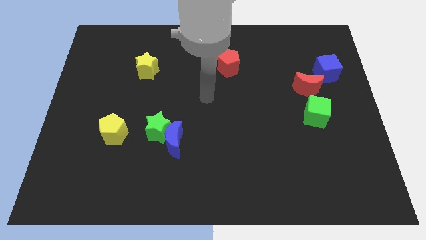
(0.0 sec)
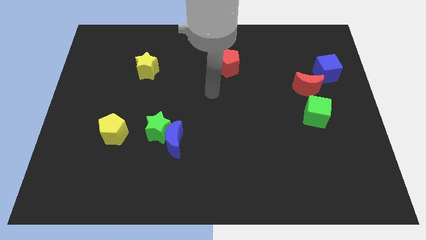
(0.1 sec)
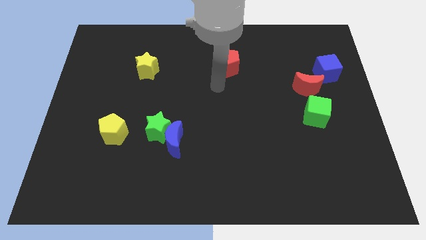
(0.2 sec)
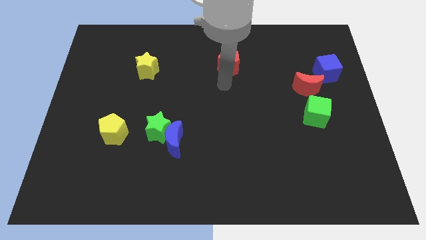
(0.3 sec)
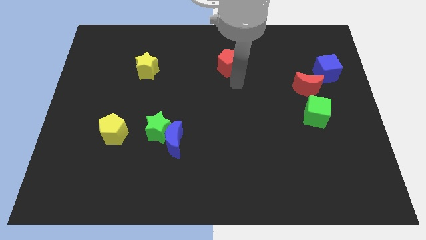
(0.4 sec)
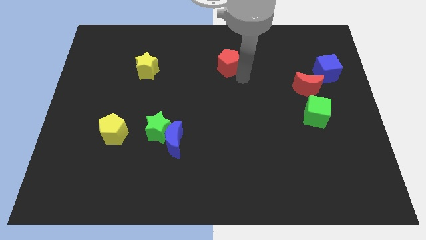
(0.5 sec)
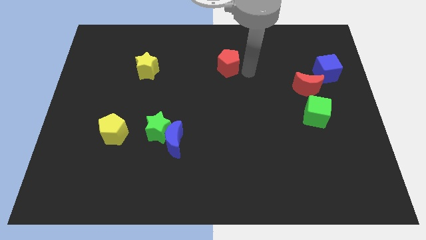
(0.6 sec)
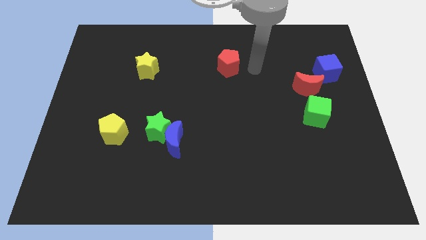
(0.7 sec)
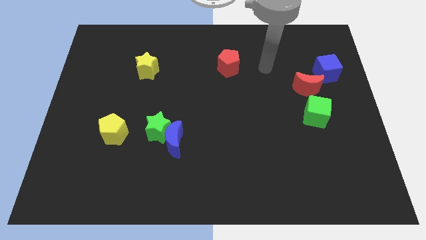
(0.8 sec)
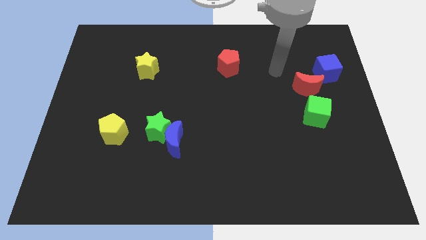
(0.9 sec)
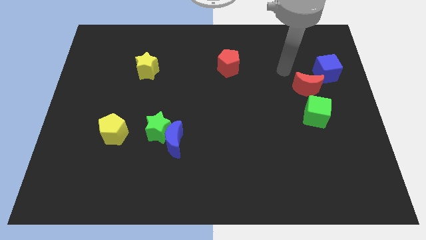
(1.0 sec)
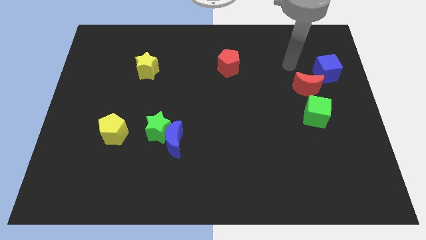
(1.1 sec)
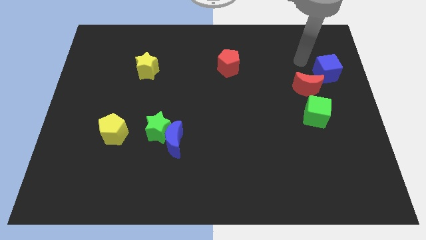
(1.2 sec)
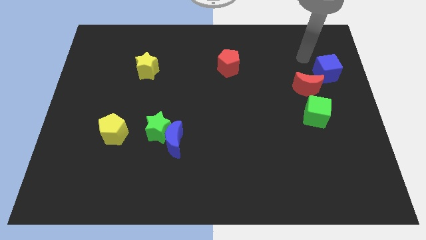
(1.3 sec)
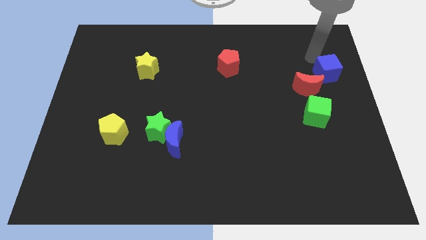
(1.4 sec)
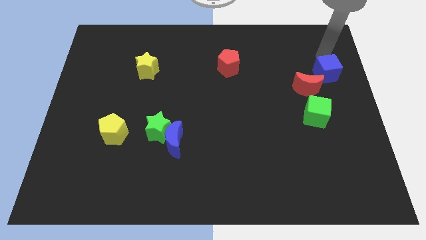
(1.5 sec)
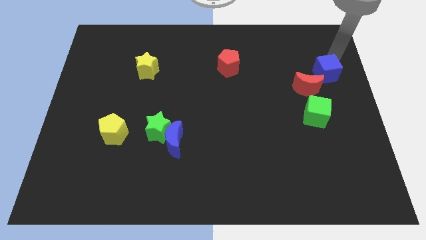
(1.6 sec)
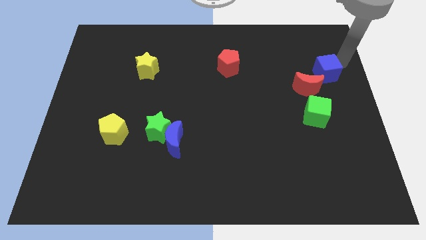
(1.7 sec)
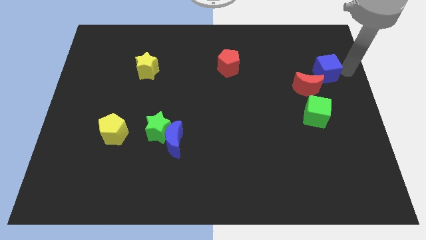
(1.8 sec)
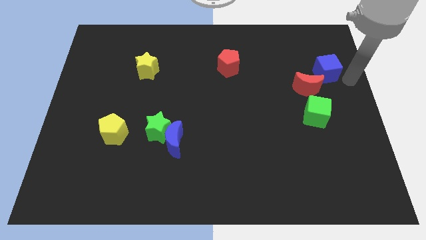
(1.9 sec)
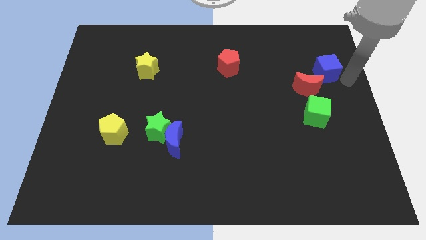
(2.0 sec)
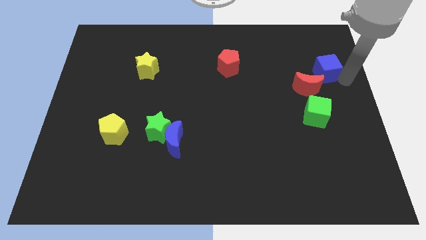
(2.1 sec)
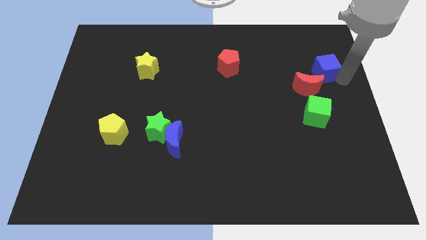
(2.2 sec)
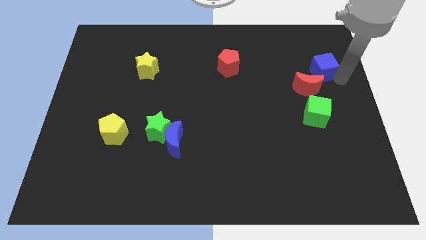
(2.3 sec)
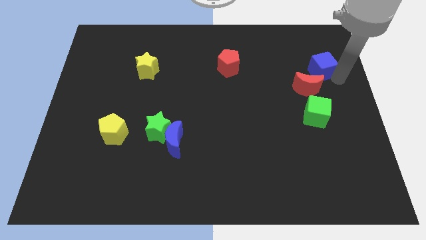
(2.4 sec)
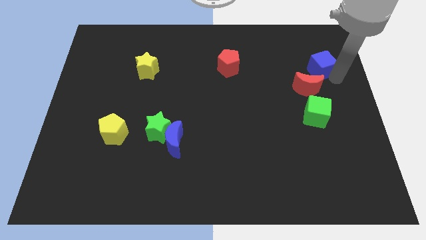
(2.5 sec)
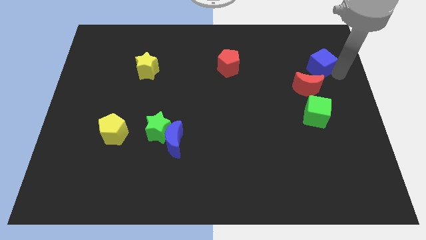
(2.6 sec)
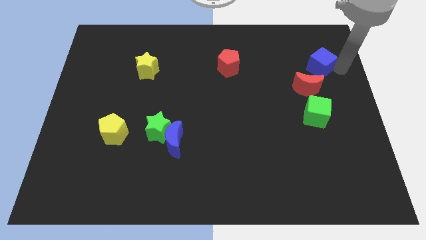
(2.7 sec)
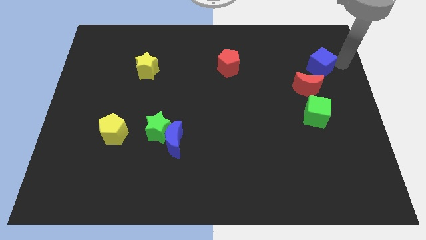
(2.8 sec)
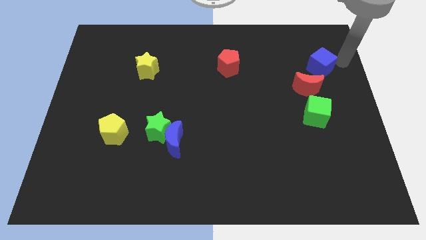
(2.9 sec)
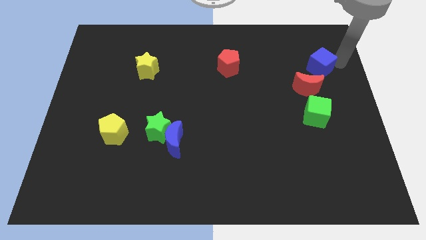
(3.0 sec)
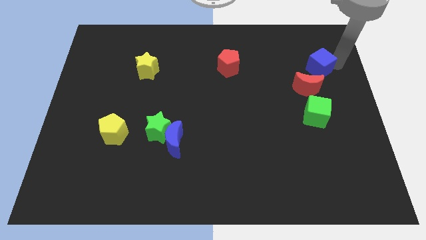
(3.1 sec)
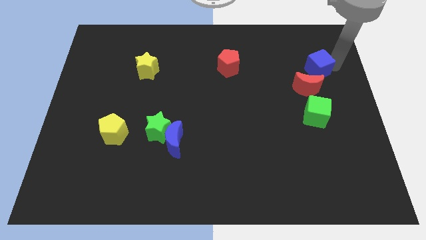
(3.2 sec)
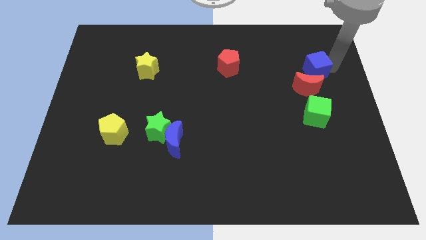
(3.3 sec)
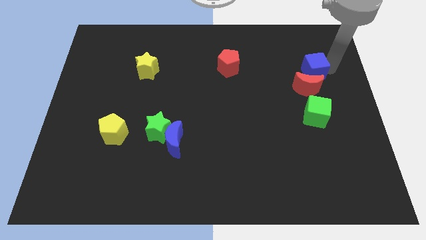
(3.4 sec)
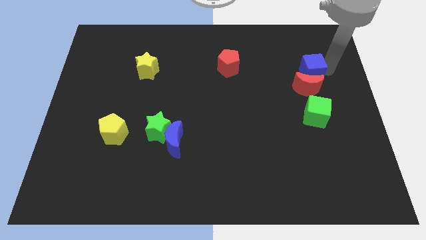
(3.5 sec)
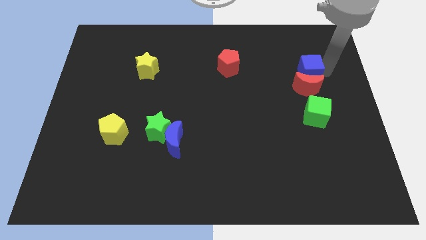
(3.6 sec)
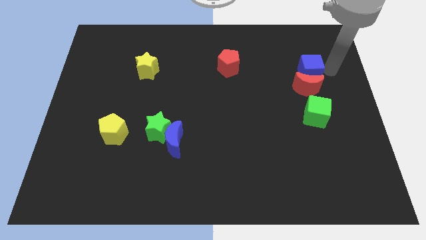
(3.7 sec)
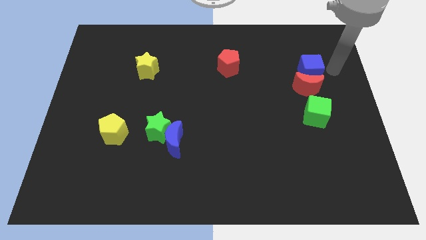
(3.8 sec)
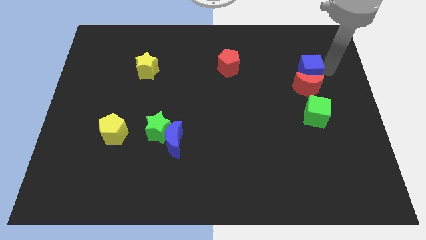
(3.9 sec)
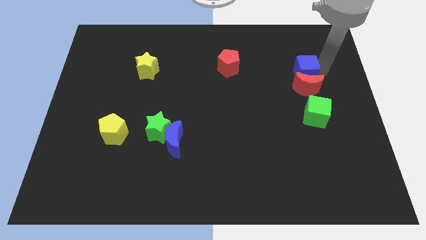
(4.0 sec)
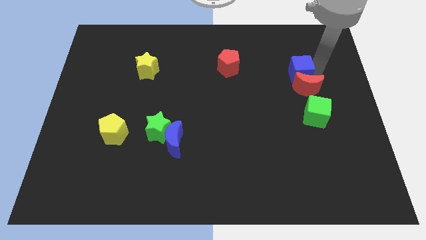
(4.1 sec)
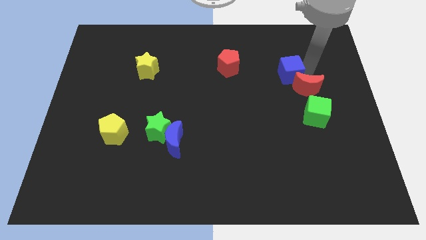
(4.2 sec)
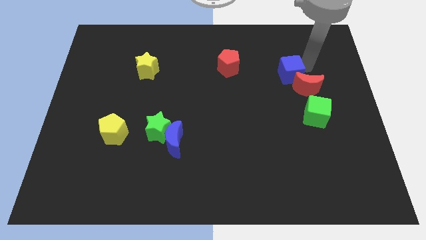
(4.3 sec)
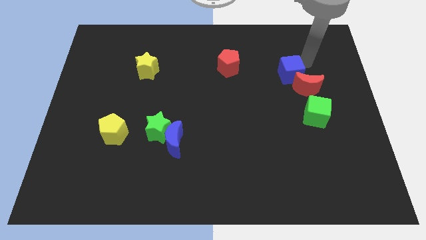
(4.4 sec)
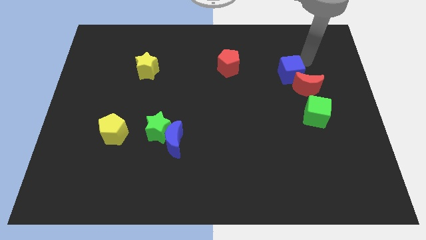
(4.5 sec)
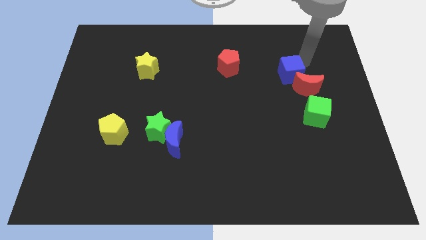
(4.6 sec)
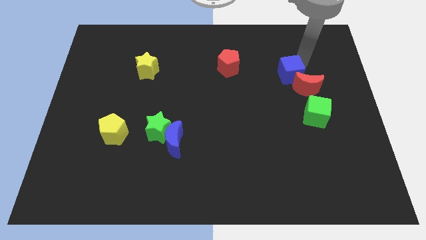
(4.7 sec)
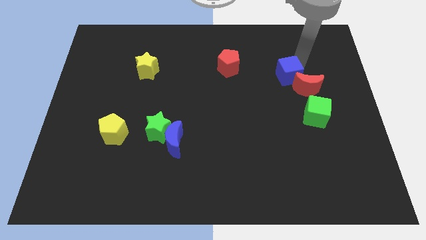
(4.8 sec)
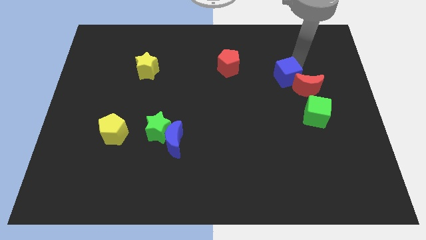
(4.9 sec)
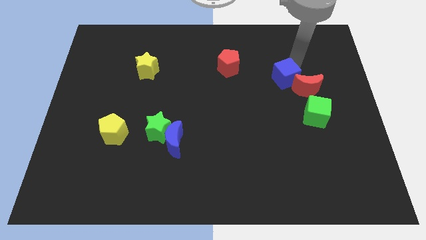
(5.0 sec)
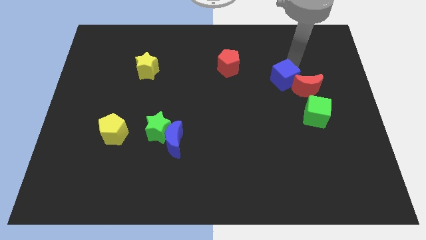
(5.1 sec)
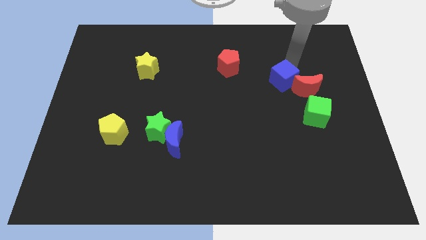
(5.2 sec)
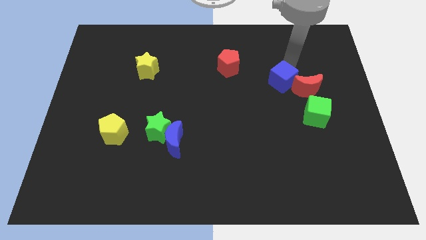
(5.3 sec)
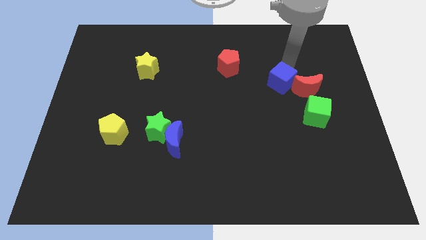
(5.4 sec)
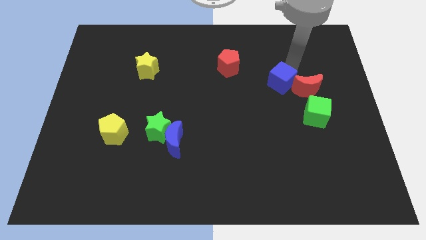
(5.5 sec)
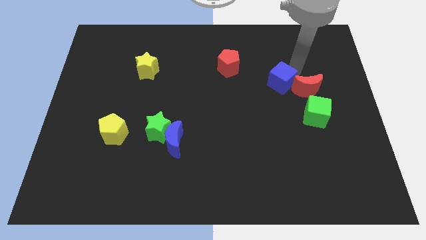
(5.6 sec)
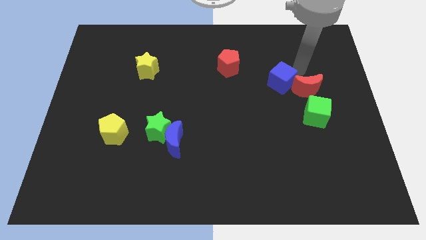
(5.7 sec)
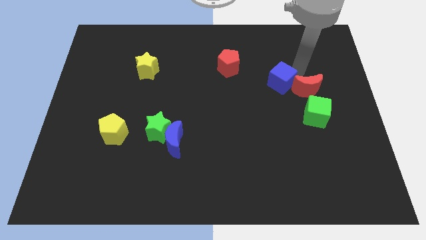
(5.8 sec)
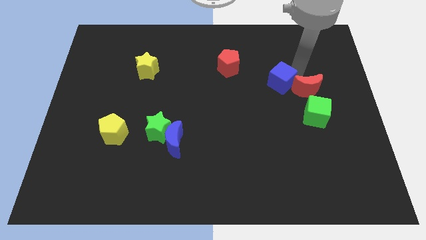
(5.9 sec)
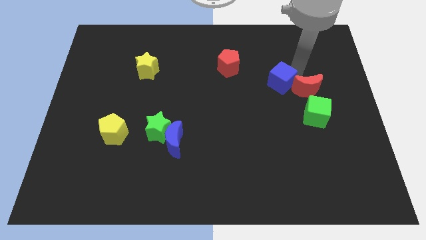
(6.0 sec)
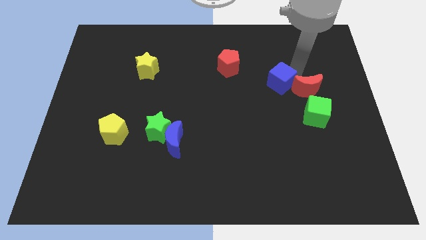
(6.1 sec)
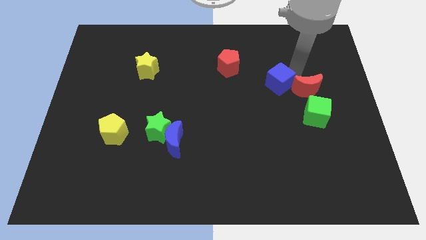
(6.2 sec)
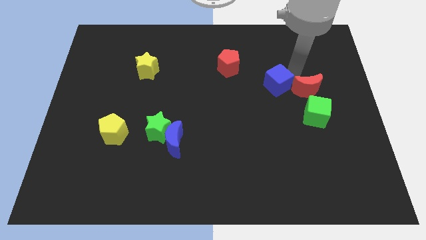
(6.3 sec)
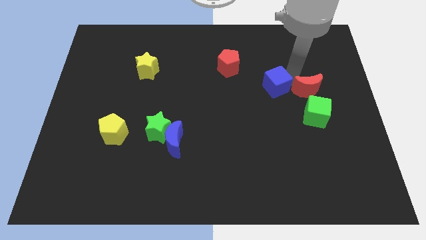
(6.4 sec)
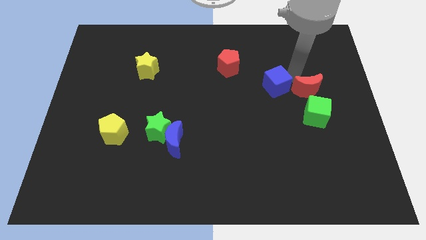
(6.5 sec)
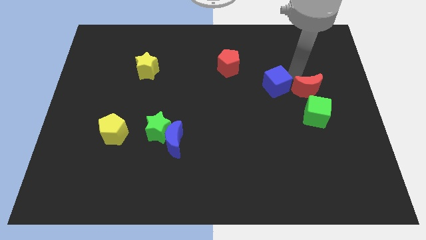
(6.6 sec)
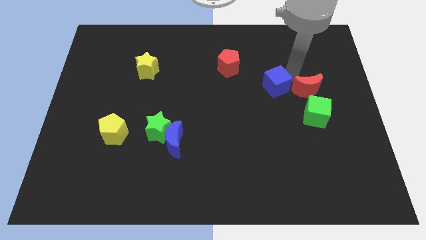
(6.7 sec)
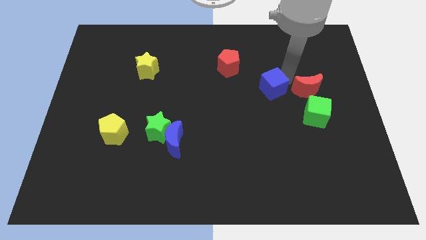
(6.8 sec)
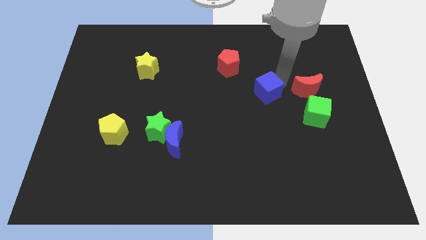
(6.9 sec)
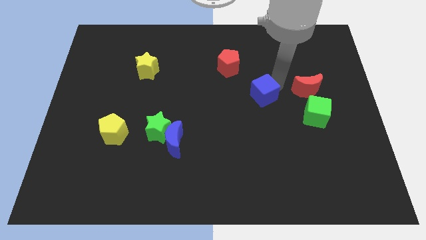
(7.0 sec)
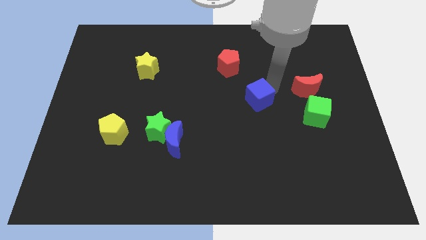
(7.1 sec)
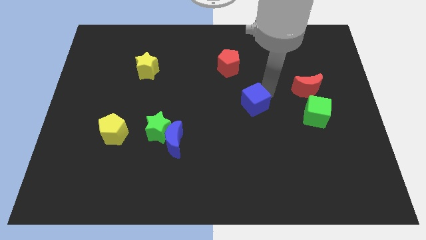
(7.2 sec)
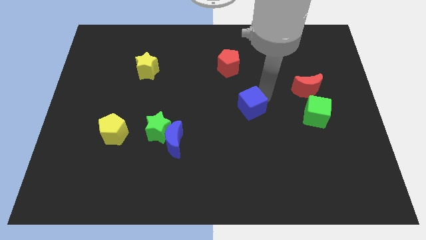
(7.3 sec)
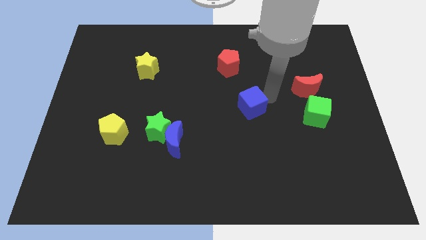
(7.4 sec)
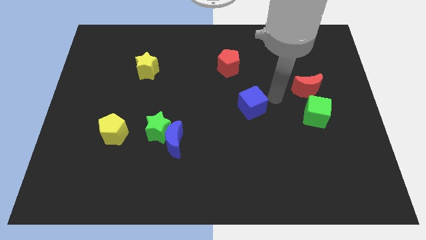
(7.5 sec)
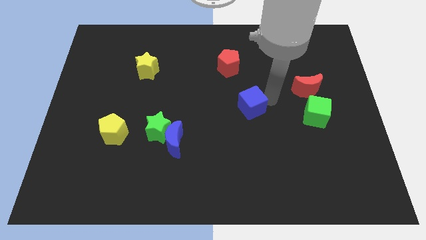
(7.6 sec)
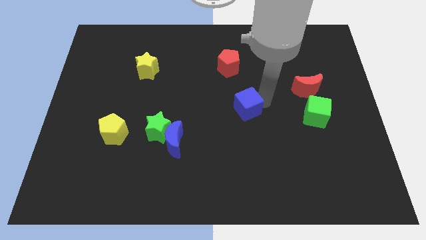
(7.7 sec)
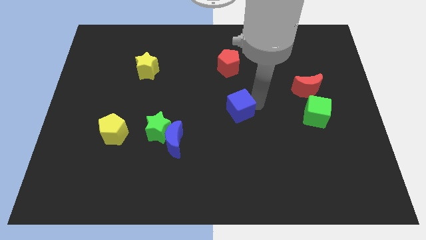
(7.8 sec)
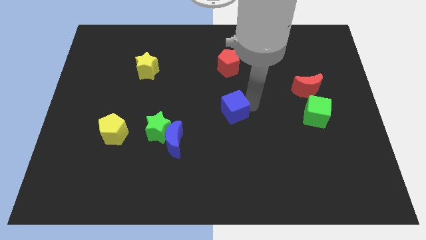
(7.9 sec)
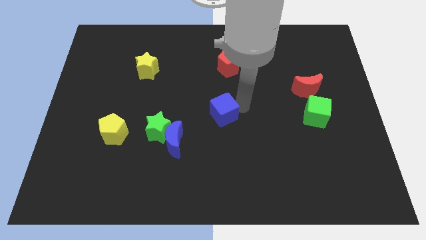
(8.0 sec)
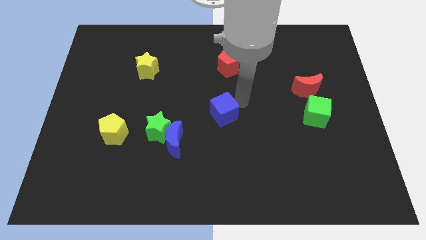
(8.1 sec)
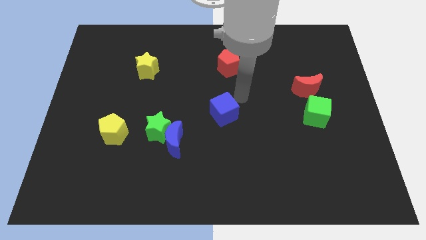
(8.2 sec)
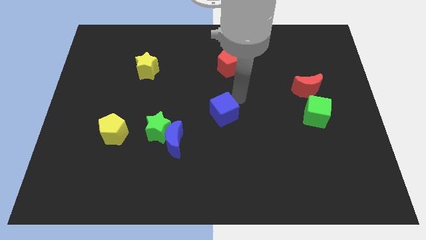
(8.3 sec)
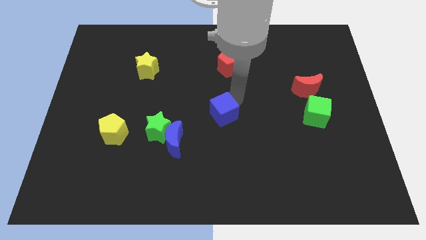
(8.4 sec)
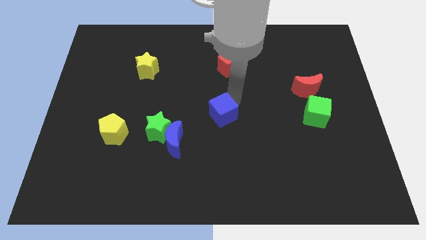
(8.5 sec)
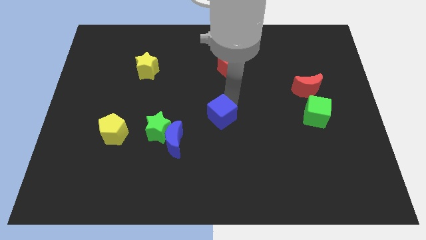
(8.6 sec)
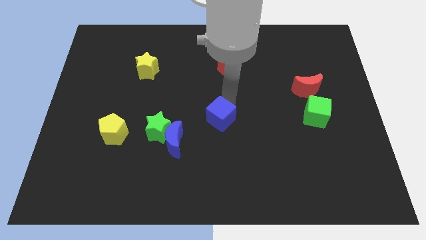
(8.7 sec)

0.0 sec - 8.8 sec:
put the blue cube right of the green star
